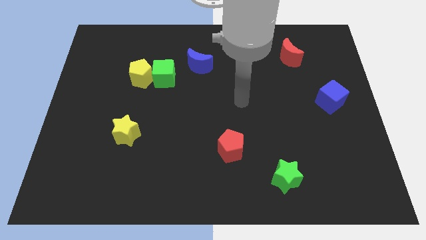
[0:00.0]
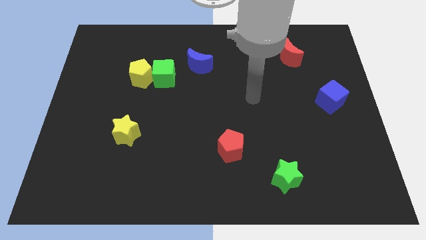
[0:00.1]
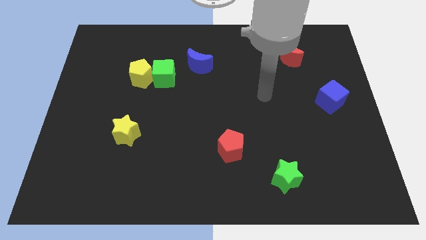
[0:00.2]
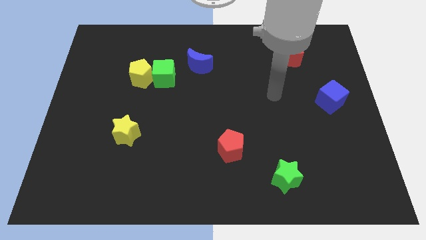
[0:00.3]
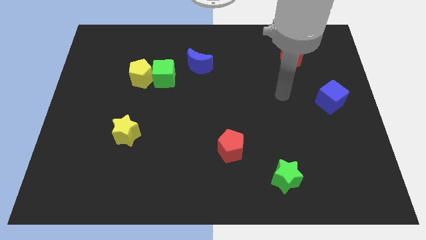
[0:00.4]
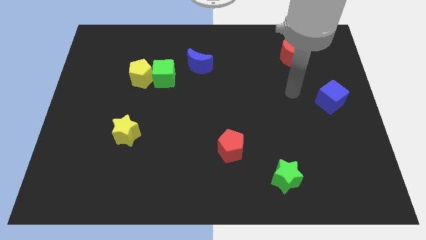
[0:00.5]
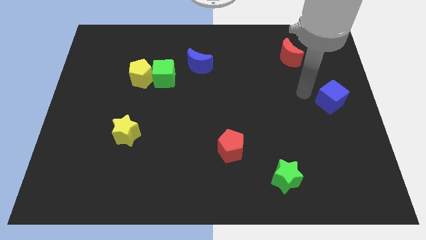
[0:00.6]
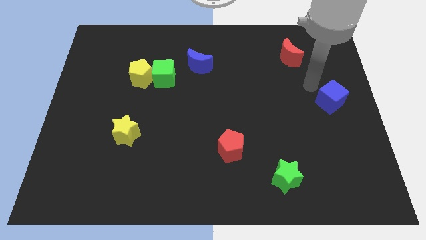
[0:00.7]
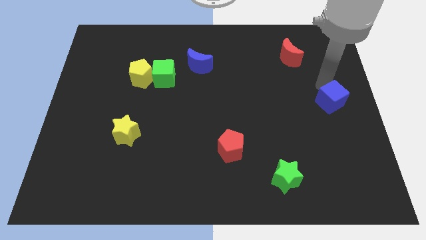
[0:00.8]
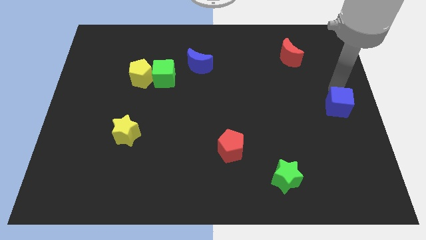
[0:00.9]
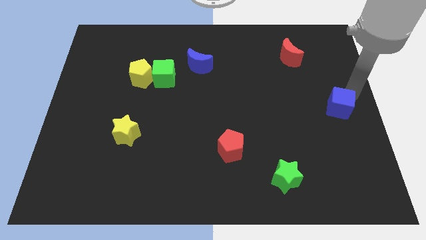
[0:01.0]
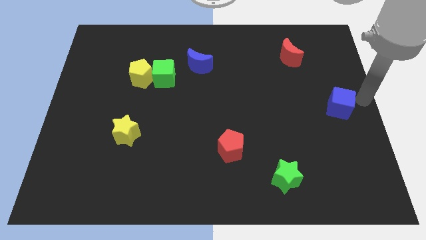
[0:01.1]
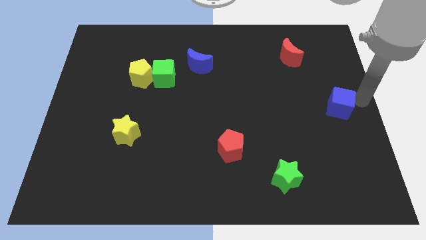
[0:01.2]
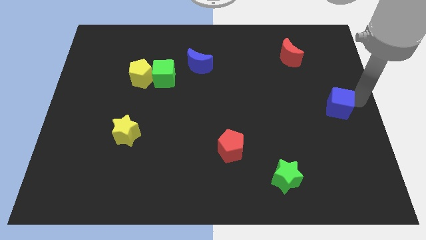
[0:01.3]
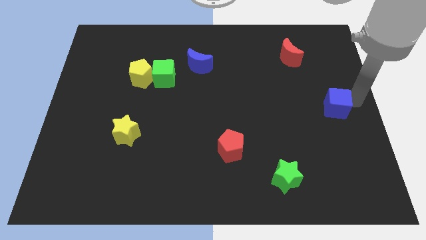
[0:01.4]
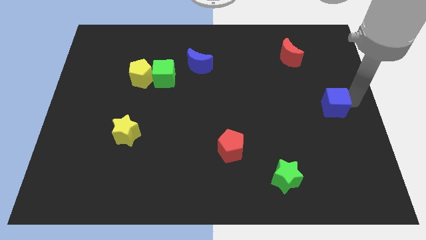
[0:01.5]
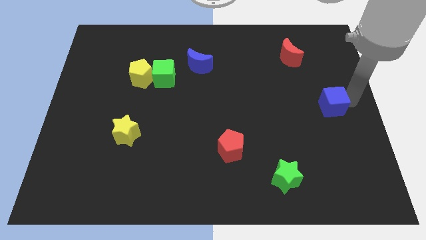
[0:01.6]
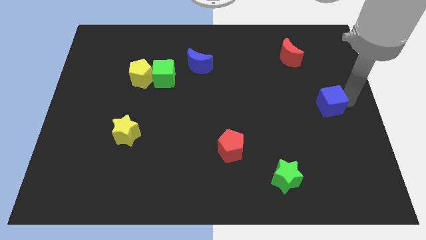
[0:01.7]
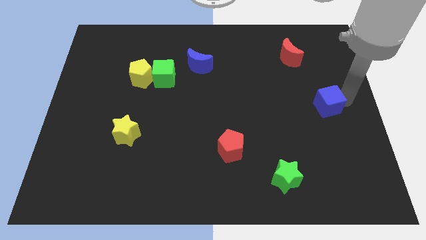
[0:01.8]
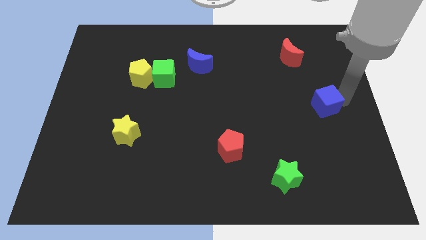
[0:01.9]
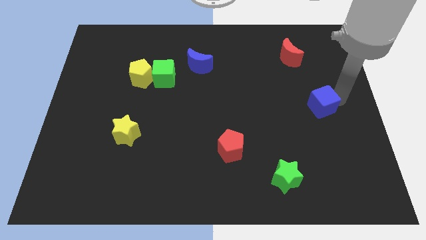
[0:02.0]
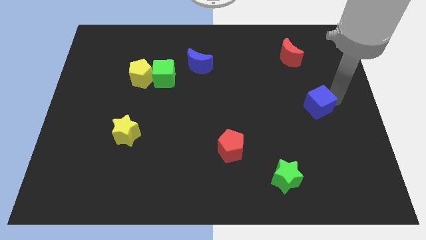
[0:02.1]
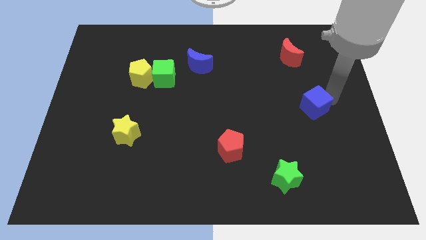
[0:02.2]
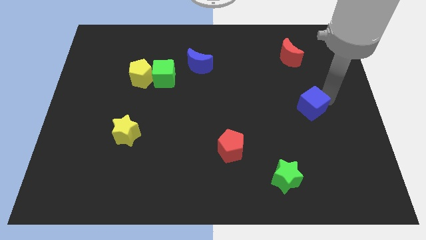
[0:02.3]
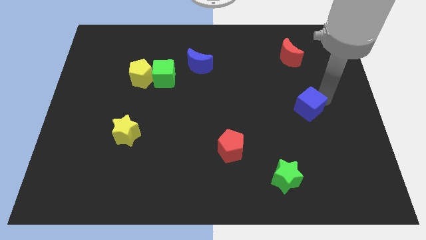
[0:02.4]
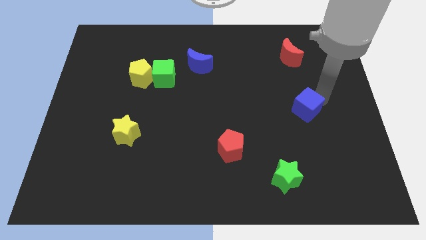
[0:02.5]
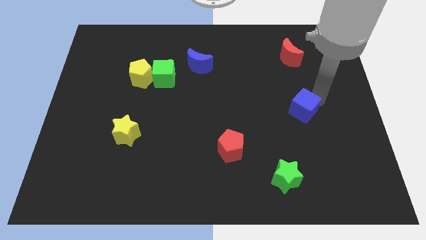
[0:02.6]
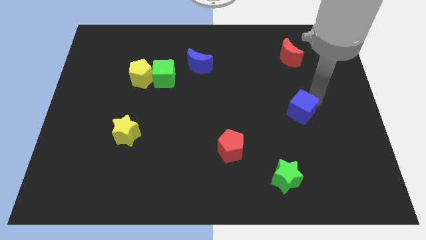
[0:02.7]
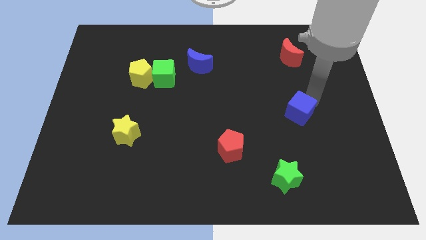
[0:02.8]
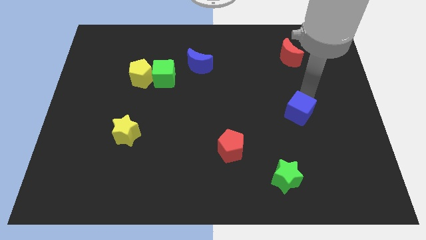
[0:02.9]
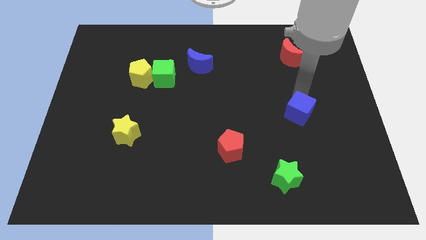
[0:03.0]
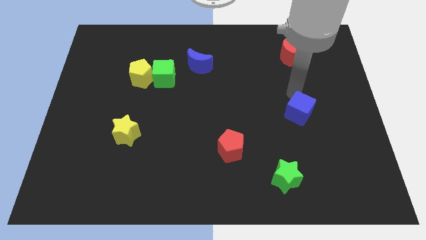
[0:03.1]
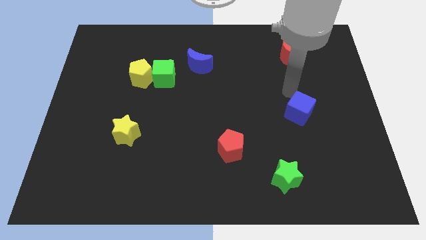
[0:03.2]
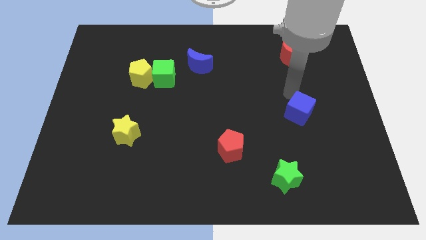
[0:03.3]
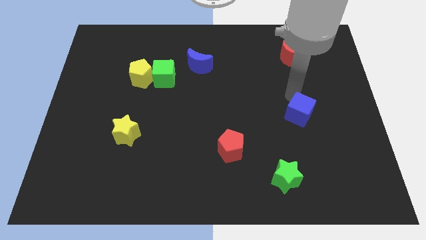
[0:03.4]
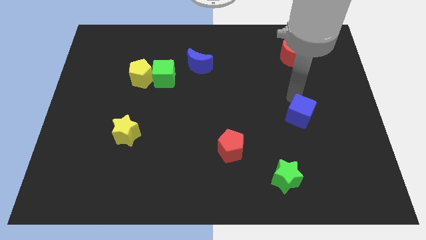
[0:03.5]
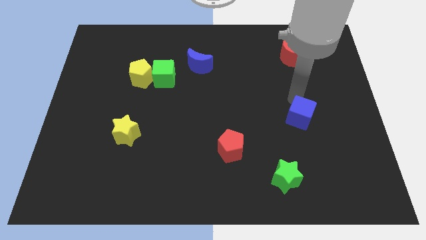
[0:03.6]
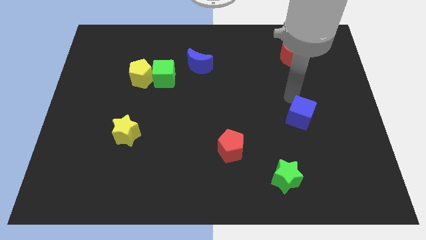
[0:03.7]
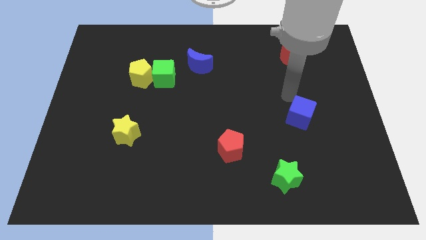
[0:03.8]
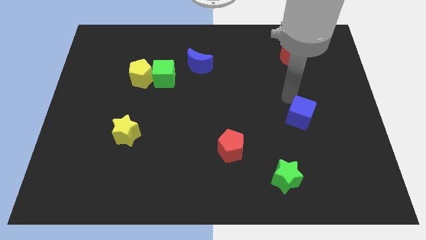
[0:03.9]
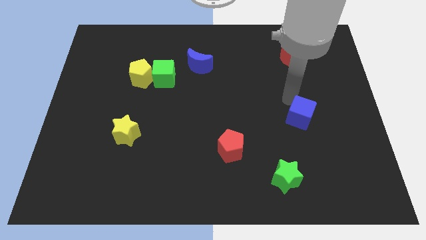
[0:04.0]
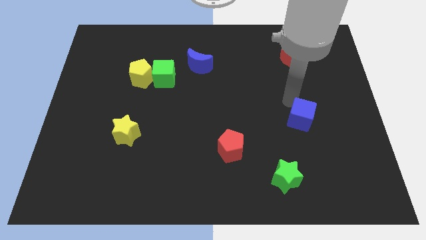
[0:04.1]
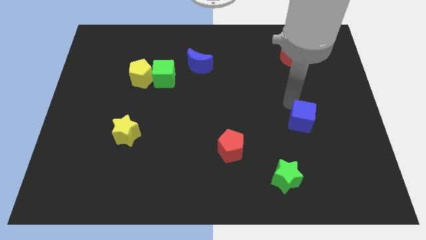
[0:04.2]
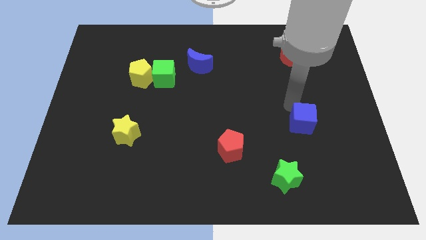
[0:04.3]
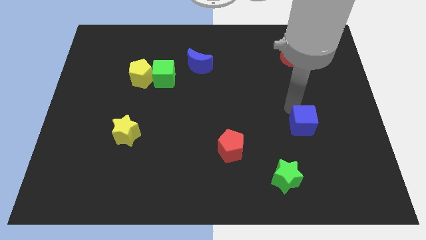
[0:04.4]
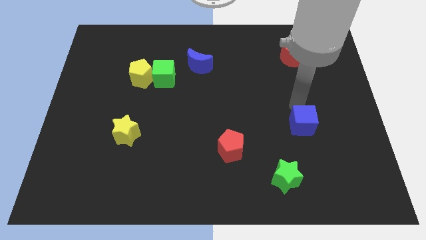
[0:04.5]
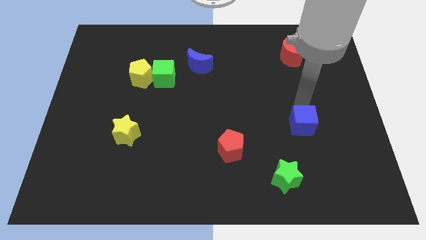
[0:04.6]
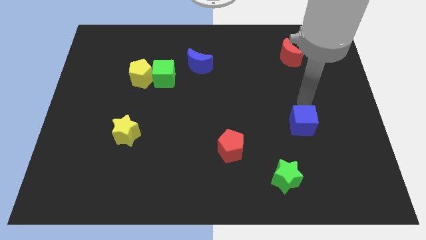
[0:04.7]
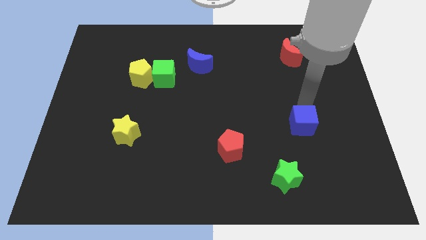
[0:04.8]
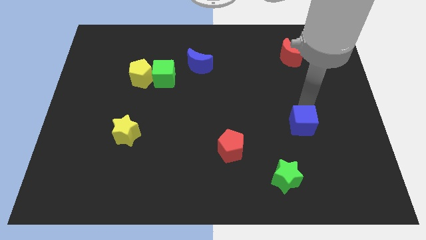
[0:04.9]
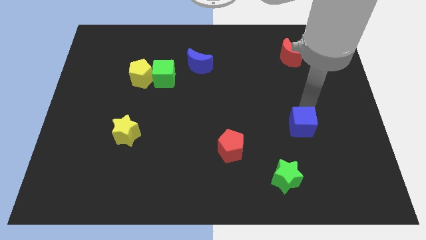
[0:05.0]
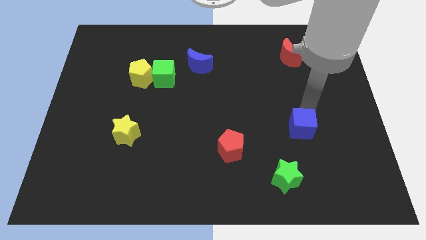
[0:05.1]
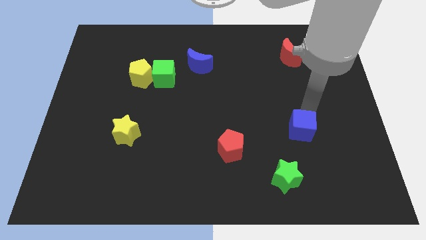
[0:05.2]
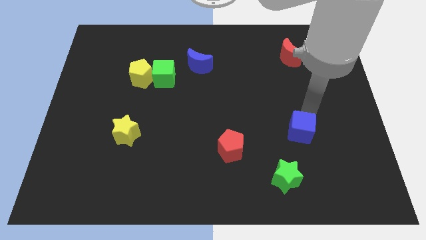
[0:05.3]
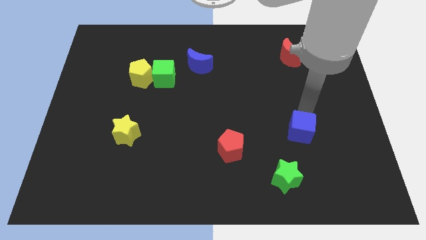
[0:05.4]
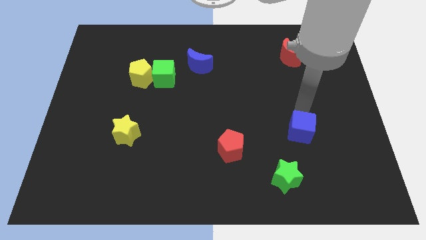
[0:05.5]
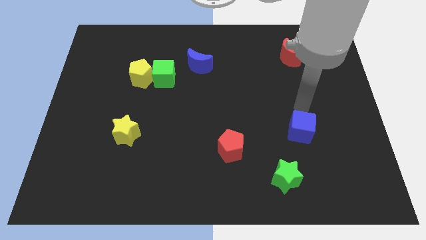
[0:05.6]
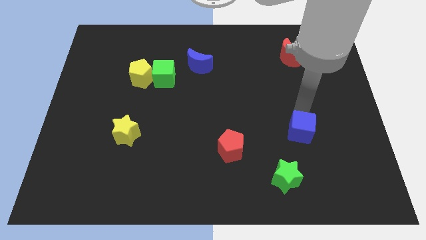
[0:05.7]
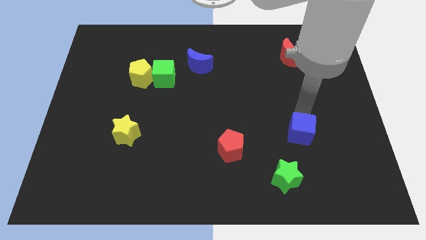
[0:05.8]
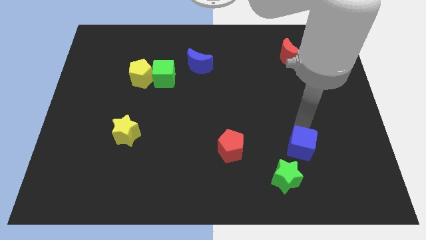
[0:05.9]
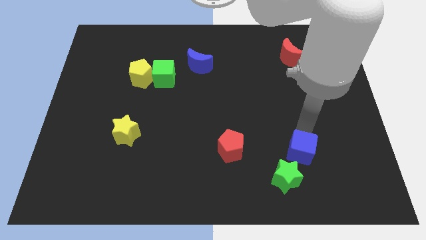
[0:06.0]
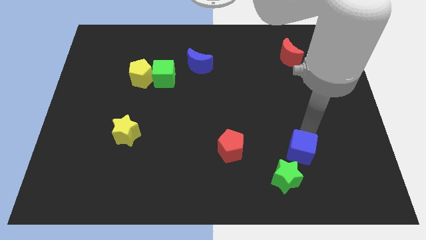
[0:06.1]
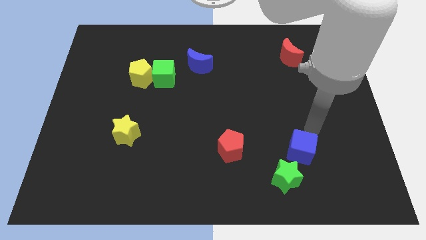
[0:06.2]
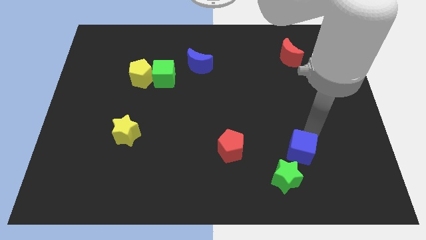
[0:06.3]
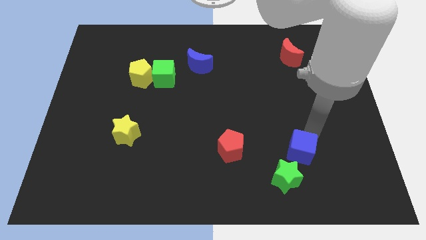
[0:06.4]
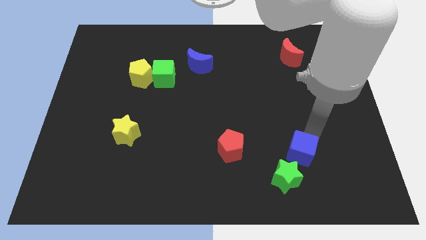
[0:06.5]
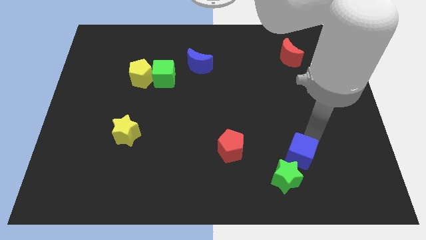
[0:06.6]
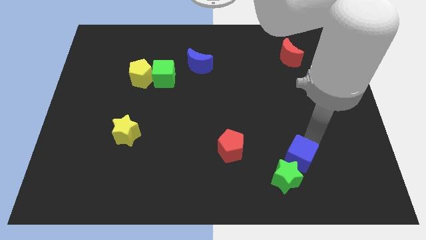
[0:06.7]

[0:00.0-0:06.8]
put the blue cube towards the green star

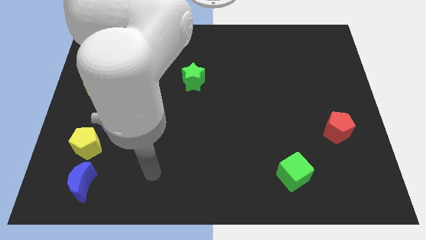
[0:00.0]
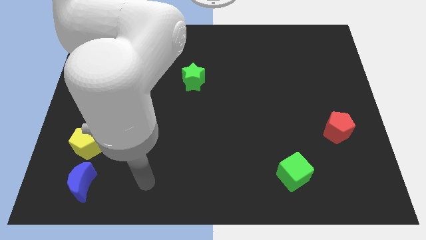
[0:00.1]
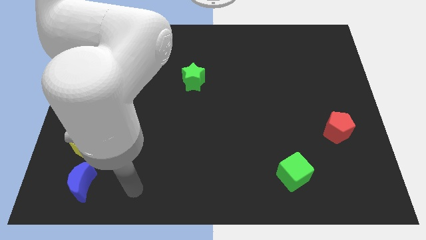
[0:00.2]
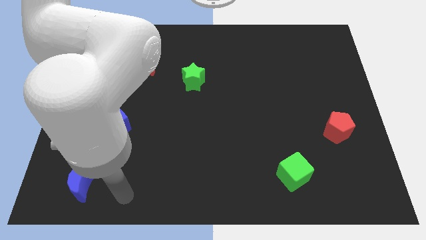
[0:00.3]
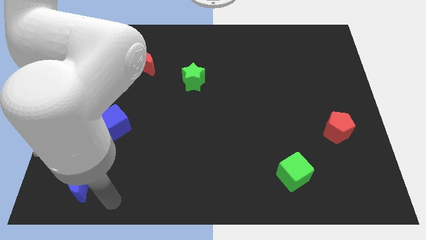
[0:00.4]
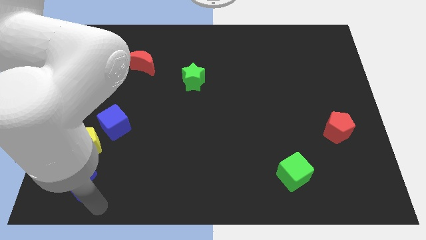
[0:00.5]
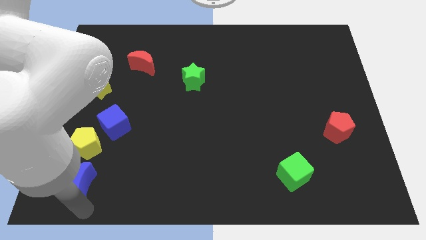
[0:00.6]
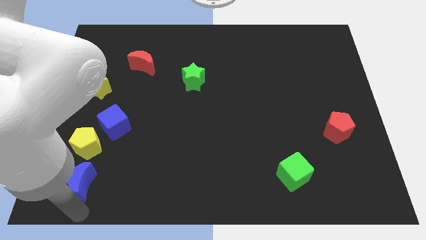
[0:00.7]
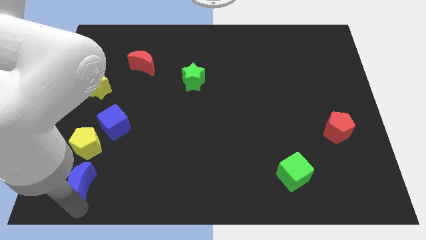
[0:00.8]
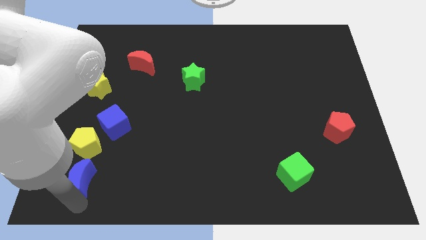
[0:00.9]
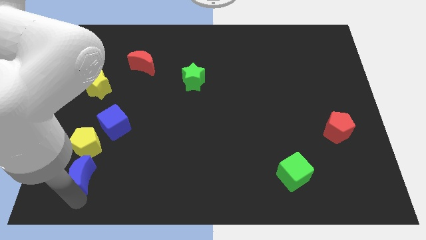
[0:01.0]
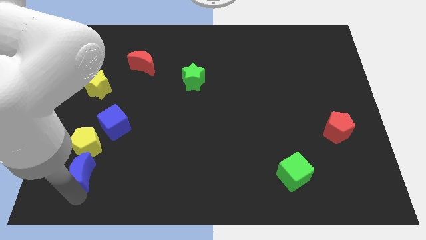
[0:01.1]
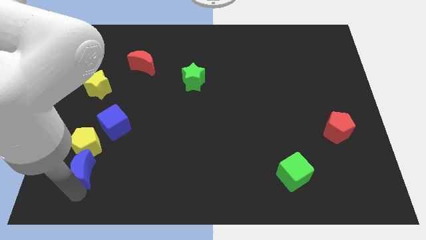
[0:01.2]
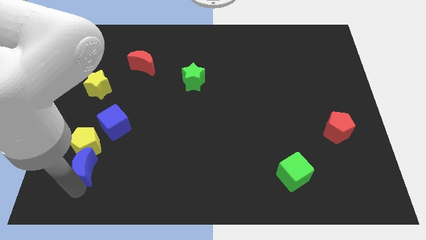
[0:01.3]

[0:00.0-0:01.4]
slide the blue moon towards the yellow pentagon
